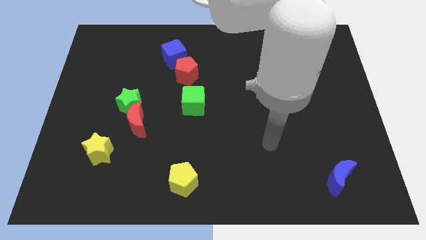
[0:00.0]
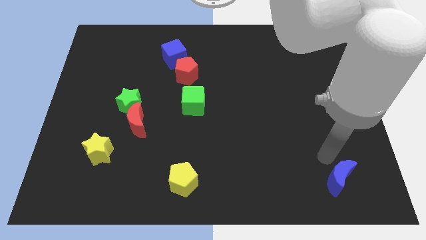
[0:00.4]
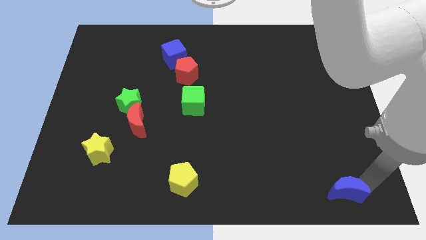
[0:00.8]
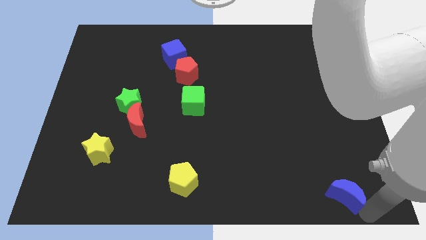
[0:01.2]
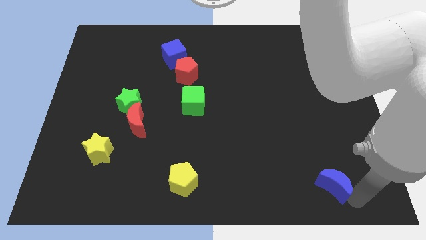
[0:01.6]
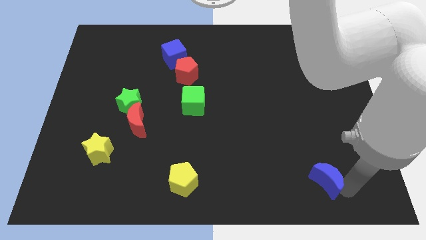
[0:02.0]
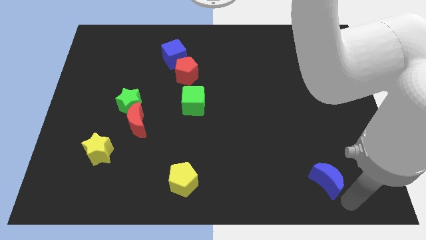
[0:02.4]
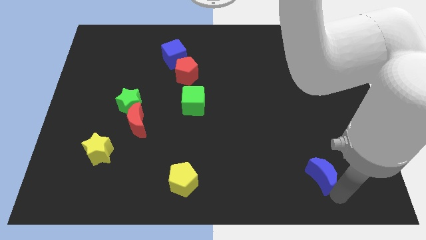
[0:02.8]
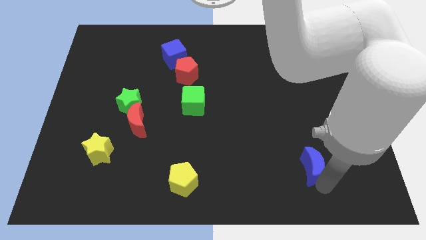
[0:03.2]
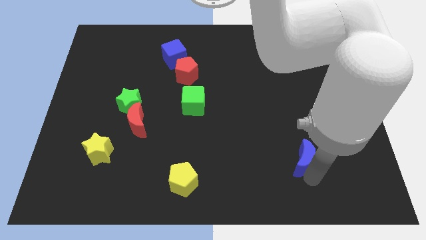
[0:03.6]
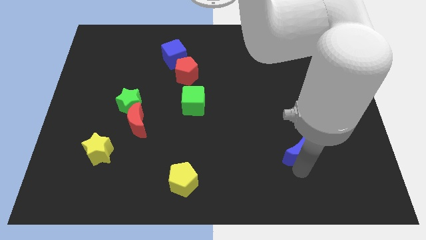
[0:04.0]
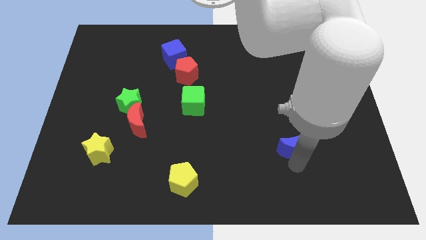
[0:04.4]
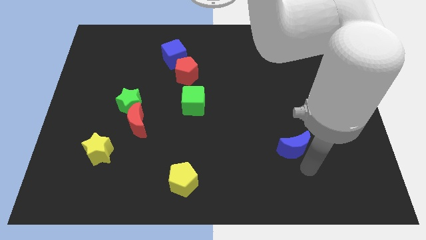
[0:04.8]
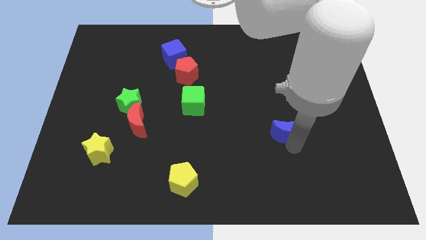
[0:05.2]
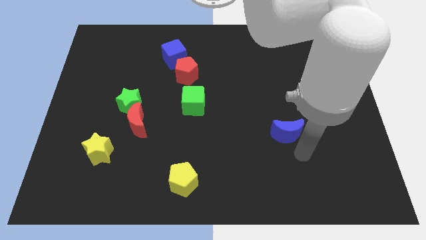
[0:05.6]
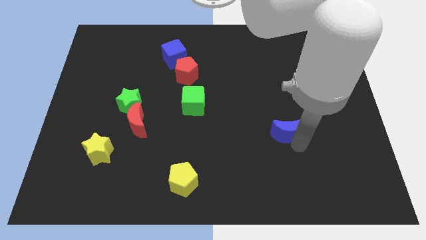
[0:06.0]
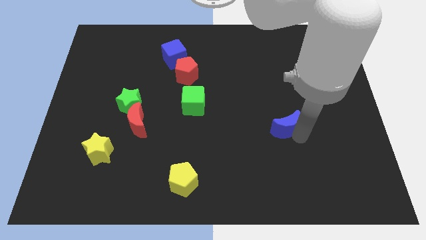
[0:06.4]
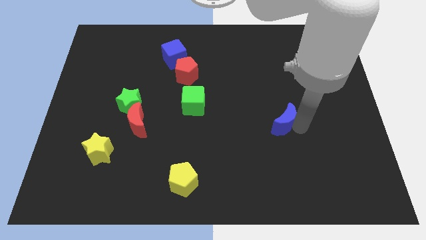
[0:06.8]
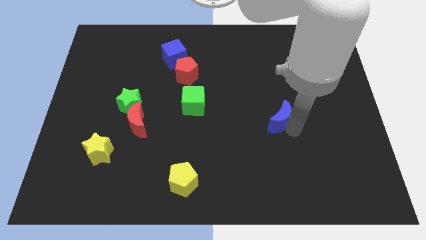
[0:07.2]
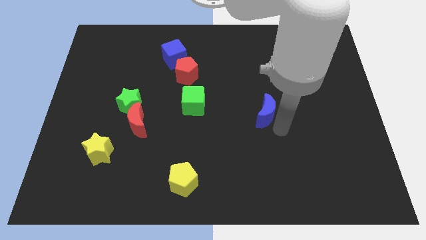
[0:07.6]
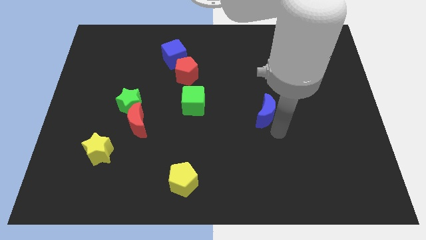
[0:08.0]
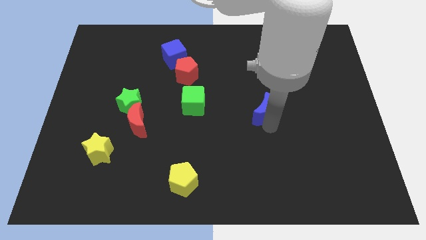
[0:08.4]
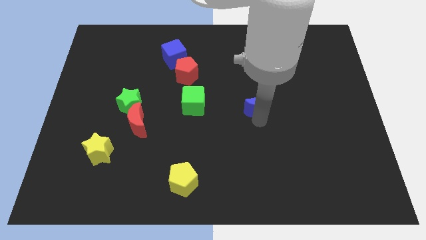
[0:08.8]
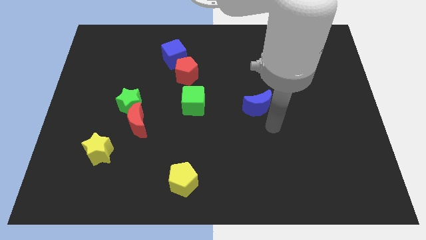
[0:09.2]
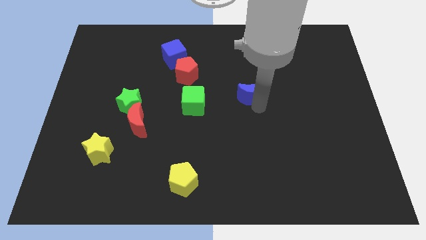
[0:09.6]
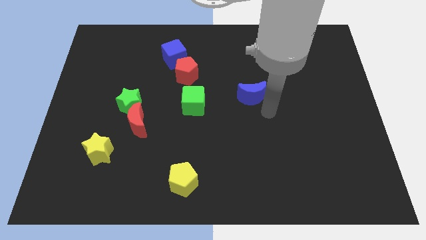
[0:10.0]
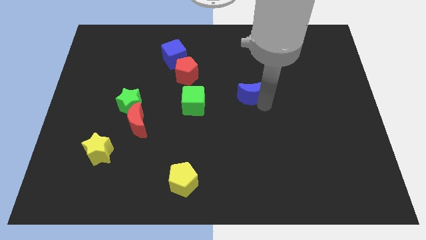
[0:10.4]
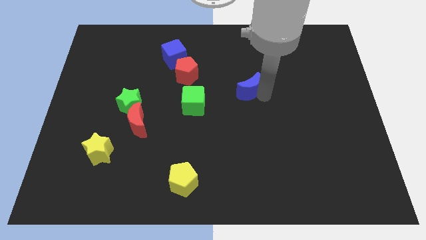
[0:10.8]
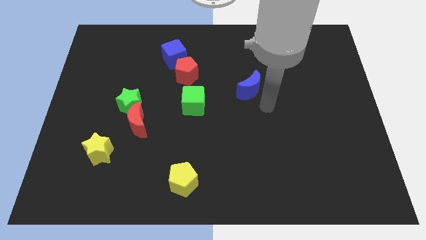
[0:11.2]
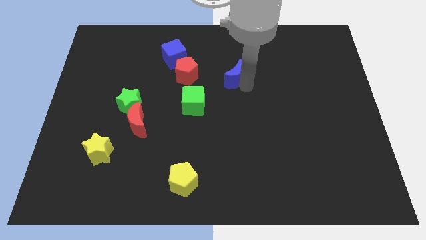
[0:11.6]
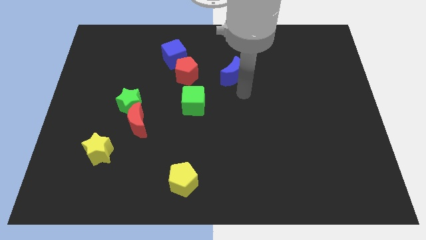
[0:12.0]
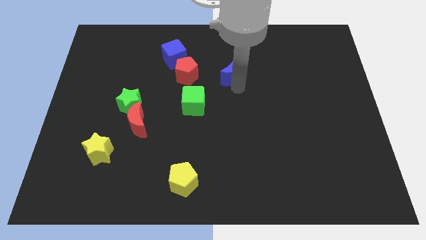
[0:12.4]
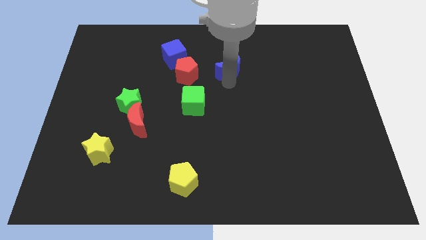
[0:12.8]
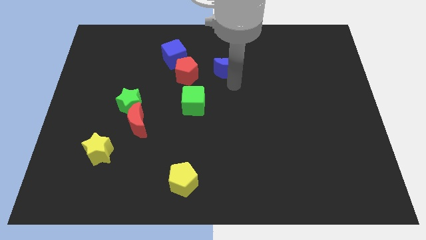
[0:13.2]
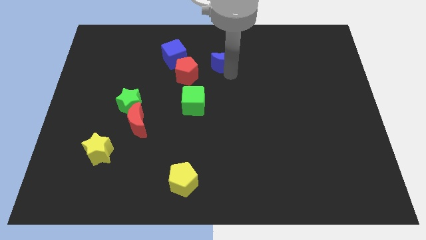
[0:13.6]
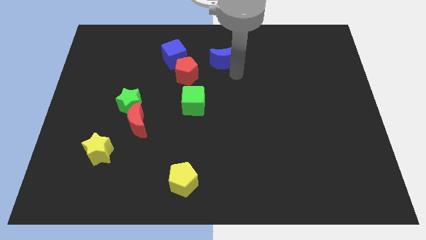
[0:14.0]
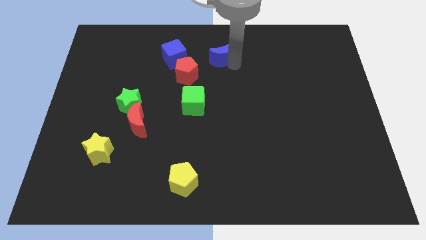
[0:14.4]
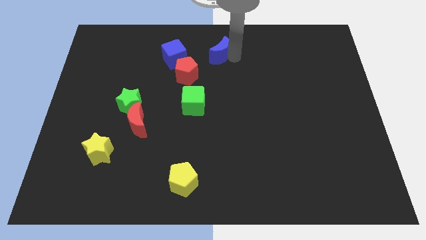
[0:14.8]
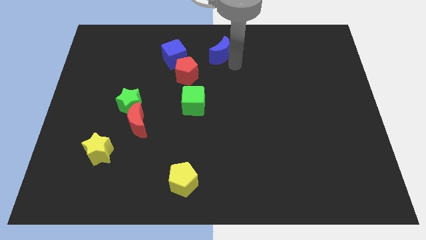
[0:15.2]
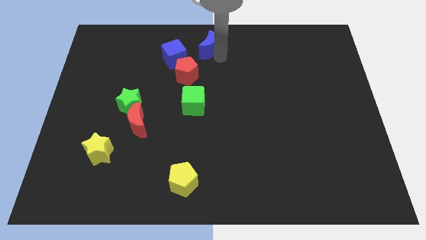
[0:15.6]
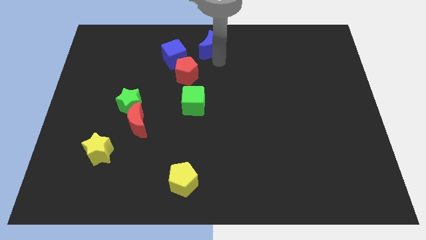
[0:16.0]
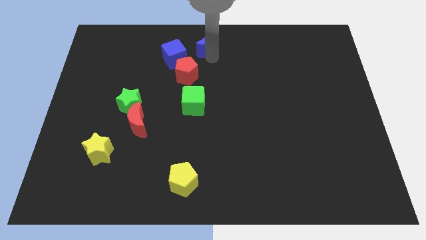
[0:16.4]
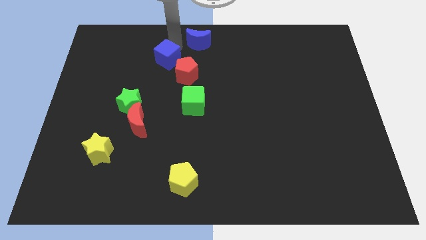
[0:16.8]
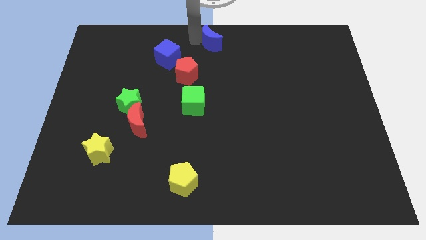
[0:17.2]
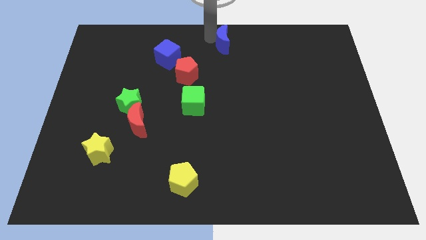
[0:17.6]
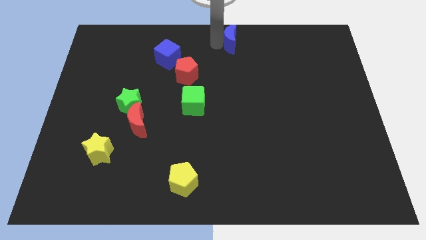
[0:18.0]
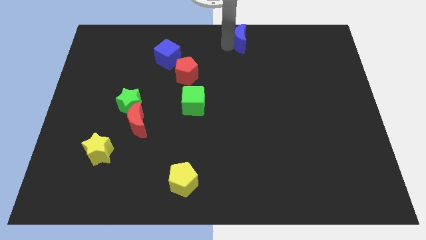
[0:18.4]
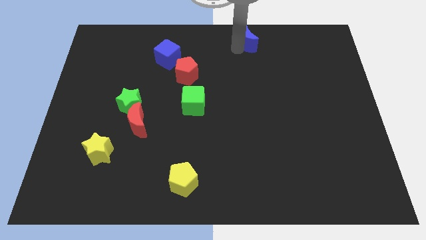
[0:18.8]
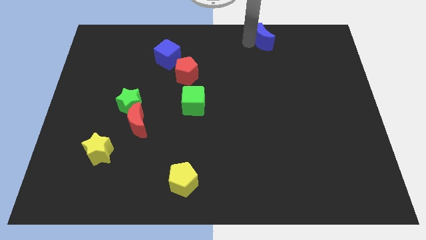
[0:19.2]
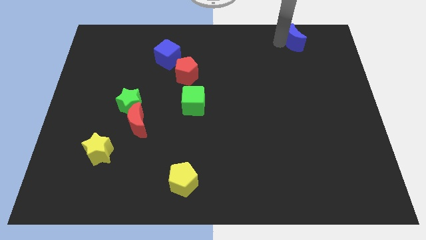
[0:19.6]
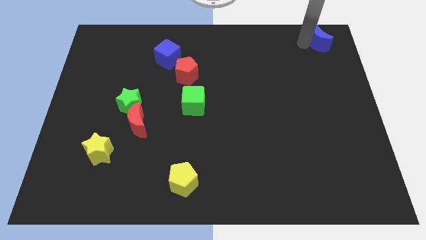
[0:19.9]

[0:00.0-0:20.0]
move the blue moon to the top right of the board

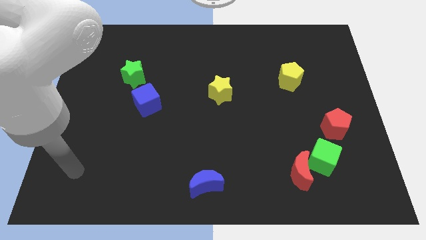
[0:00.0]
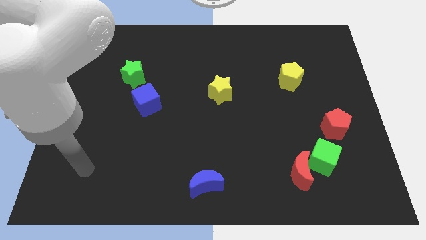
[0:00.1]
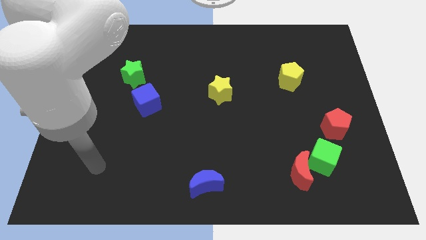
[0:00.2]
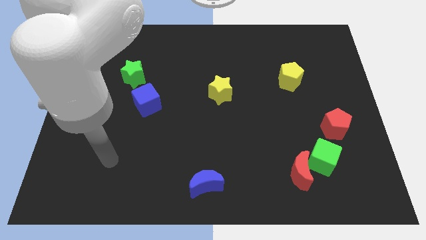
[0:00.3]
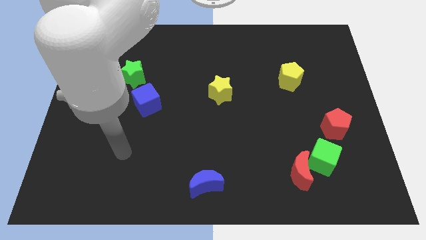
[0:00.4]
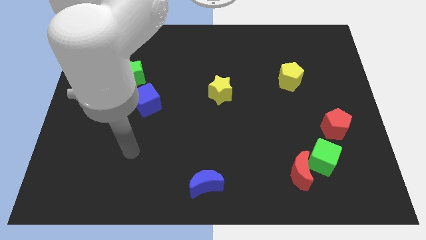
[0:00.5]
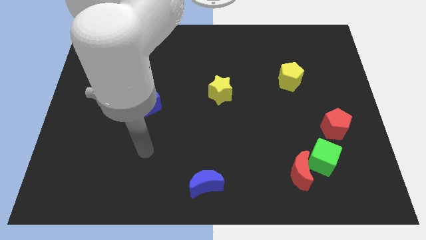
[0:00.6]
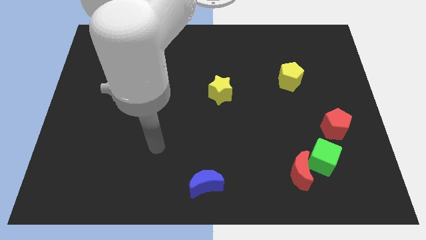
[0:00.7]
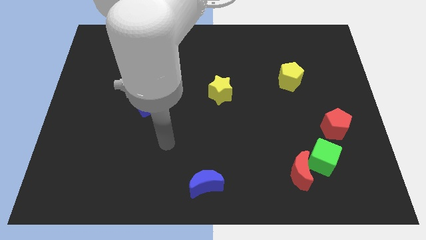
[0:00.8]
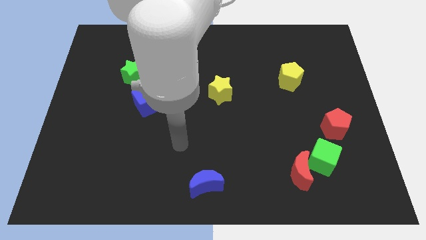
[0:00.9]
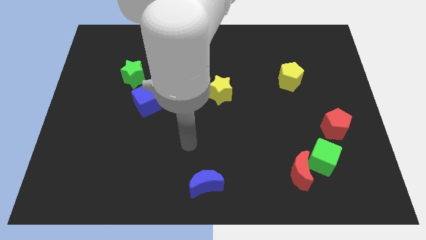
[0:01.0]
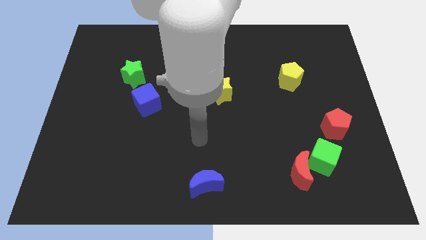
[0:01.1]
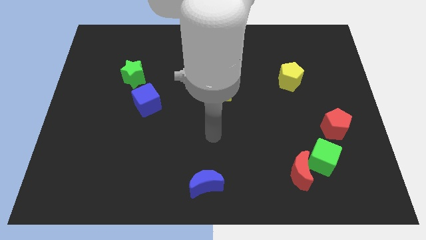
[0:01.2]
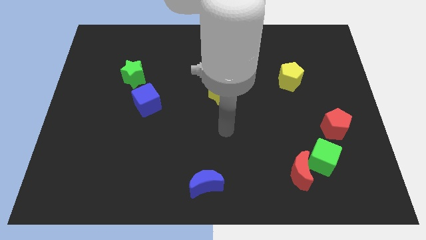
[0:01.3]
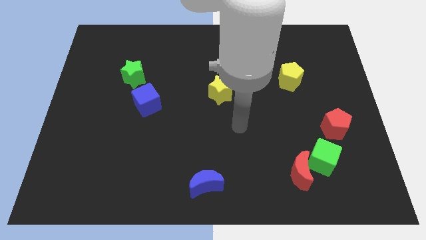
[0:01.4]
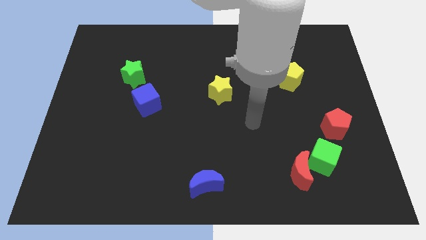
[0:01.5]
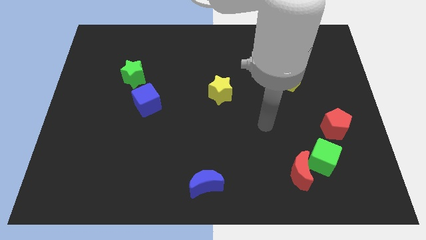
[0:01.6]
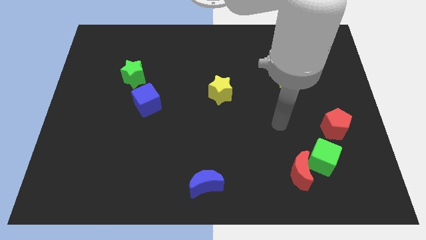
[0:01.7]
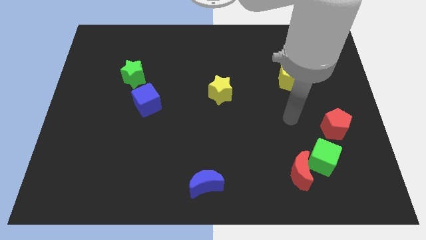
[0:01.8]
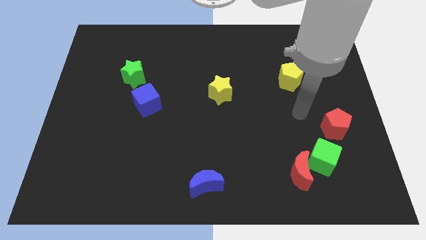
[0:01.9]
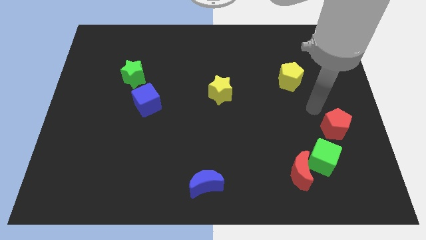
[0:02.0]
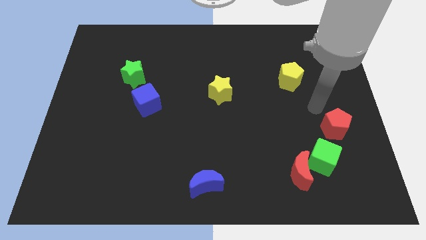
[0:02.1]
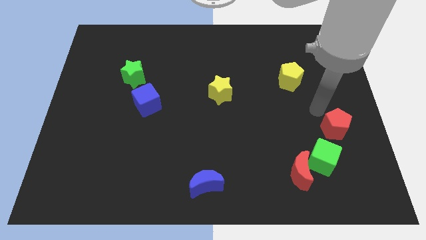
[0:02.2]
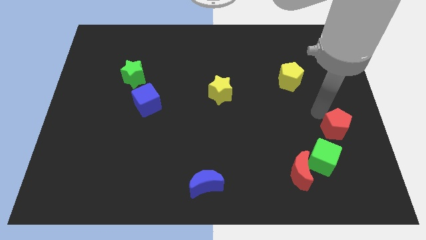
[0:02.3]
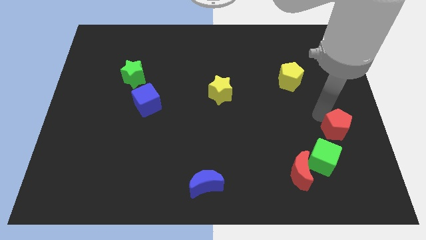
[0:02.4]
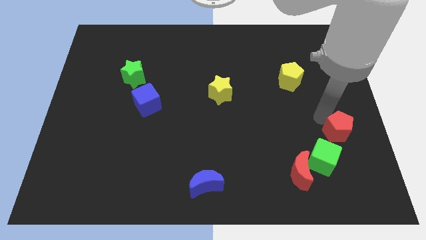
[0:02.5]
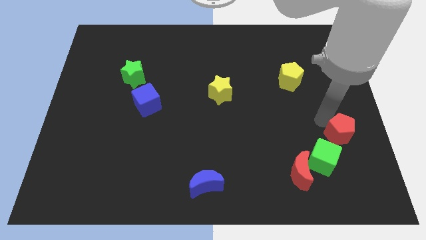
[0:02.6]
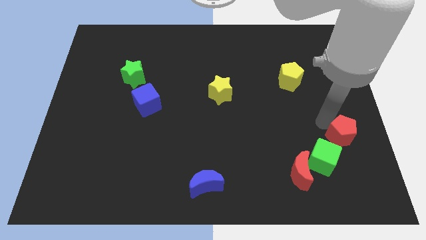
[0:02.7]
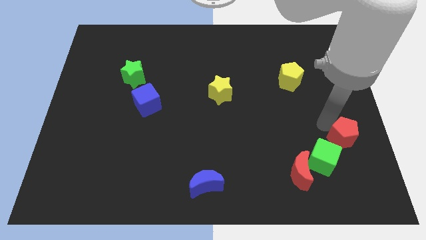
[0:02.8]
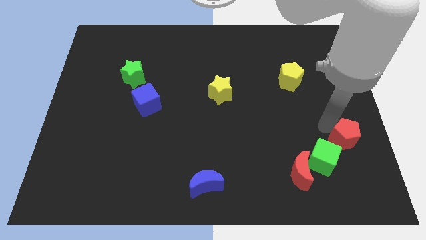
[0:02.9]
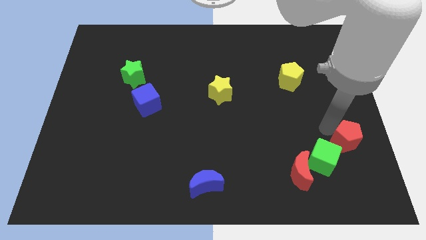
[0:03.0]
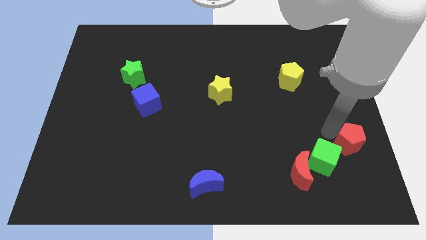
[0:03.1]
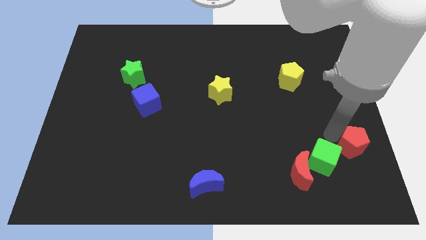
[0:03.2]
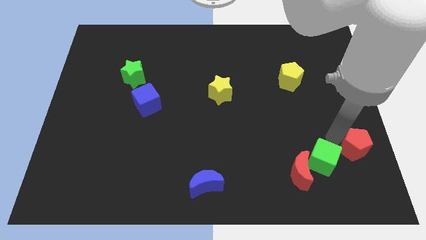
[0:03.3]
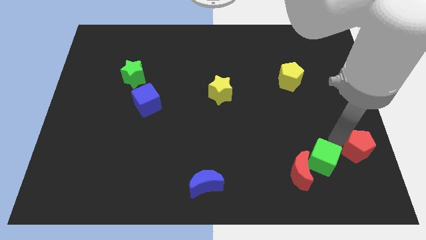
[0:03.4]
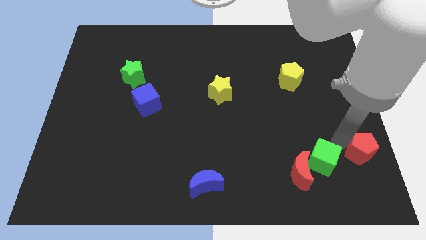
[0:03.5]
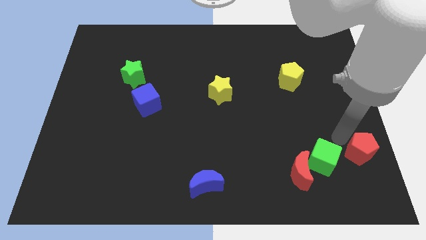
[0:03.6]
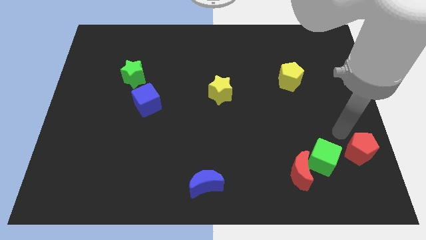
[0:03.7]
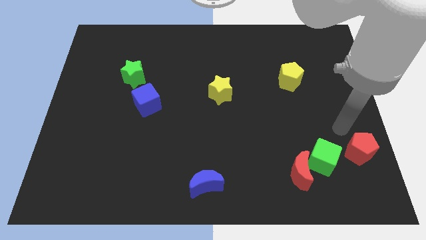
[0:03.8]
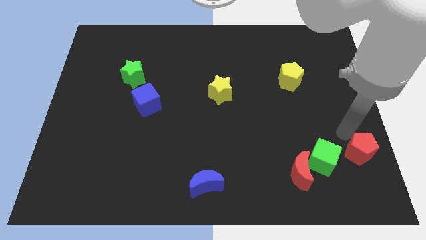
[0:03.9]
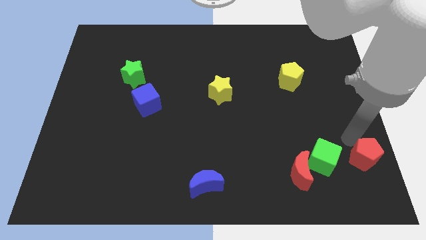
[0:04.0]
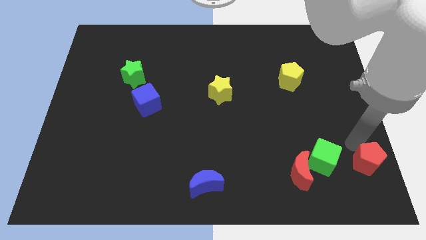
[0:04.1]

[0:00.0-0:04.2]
slide the red pentagon to the bottom right
